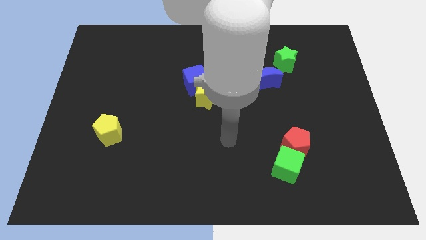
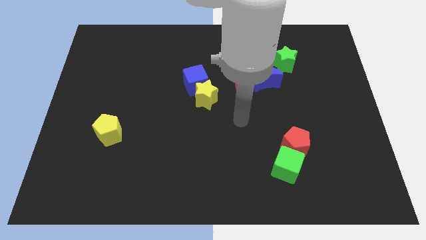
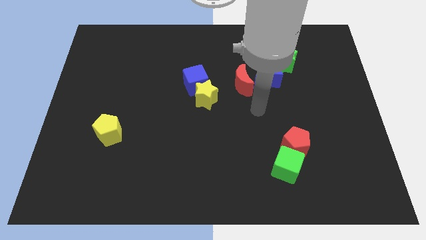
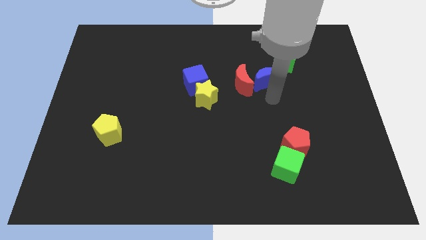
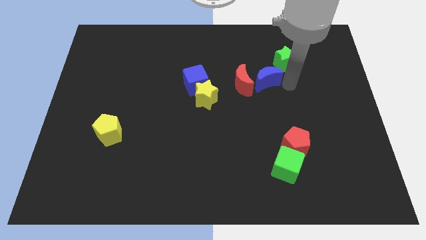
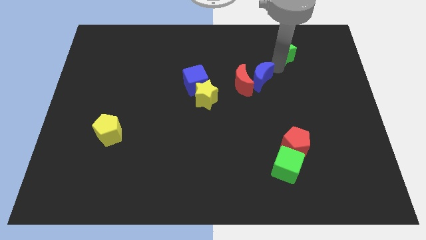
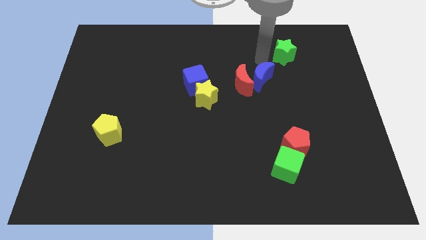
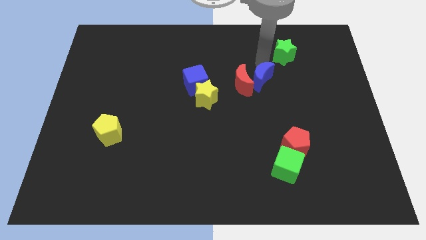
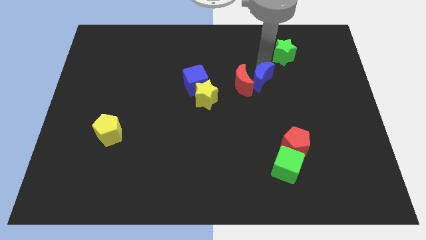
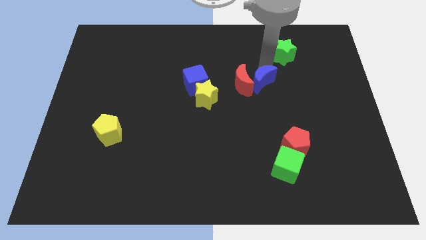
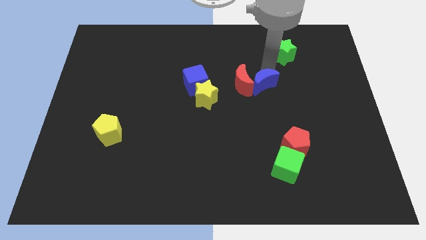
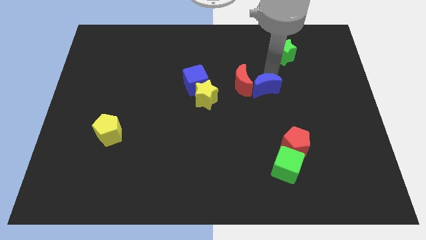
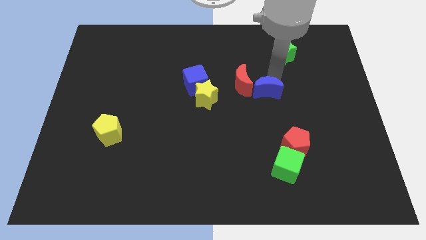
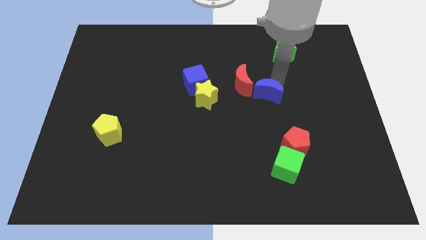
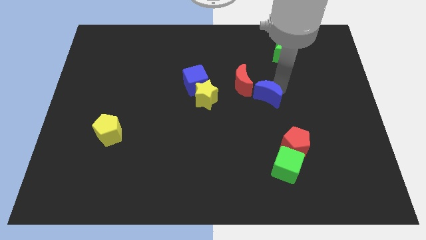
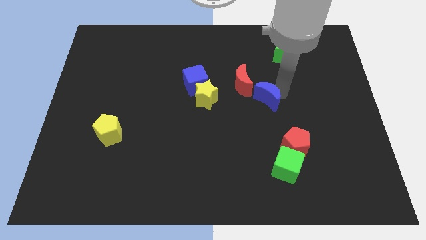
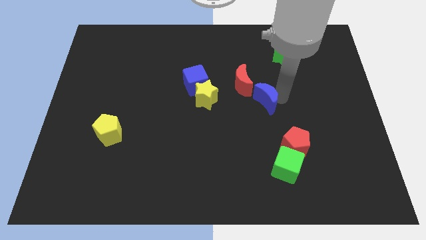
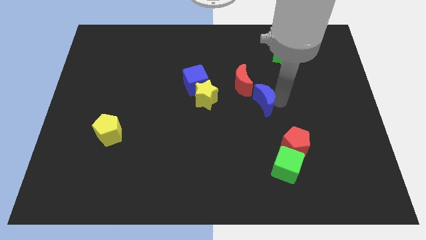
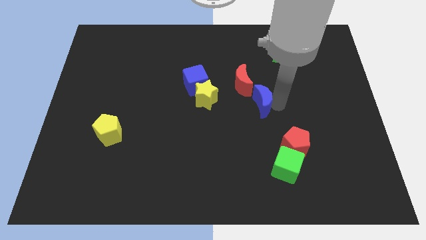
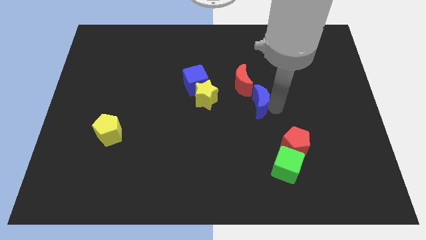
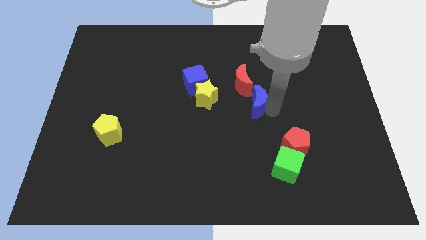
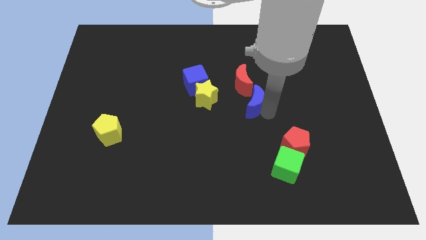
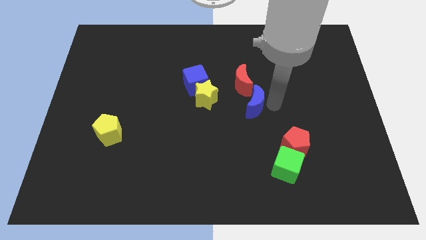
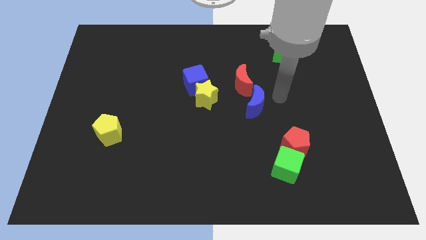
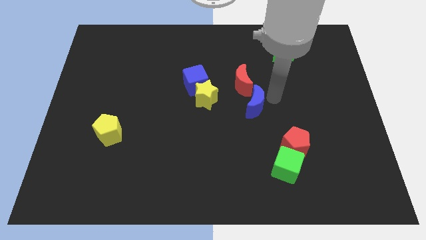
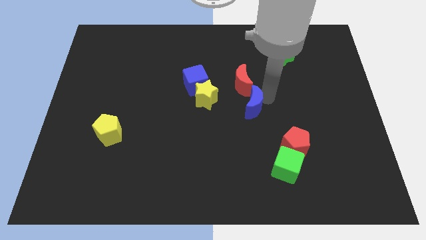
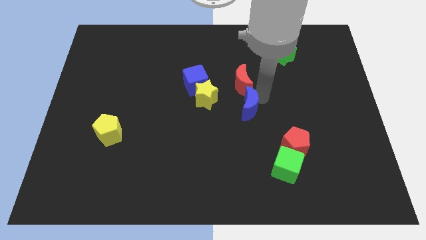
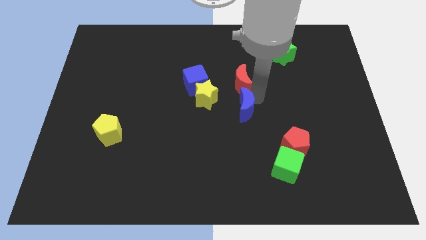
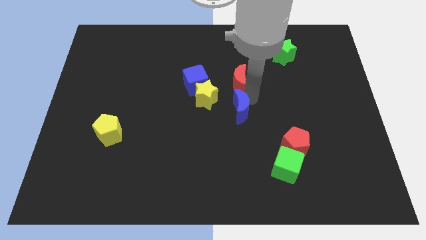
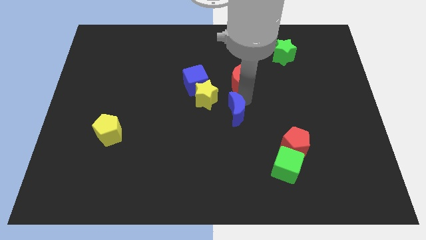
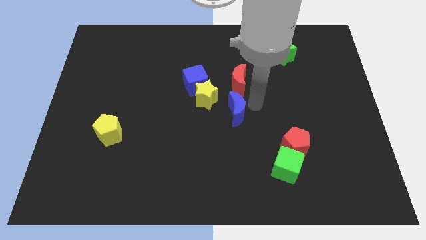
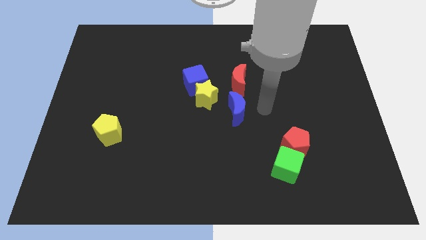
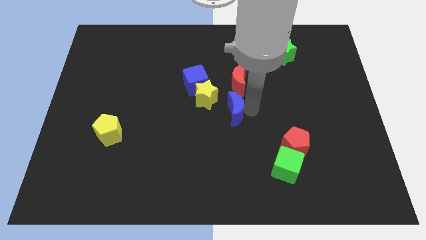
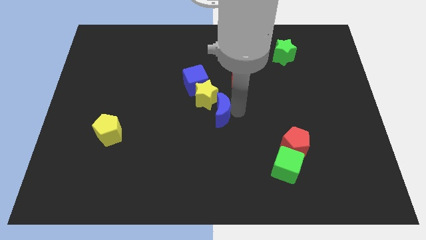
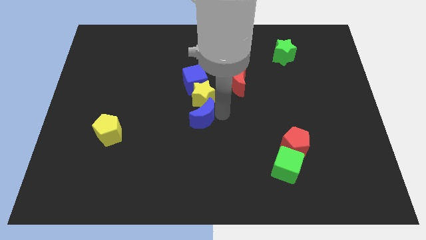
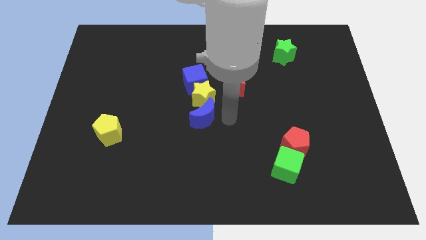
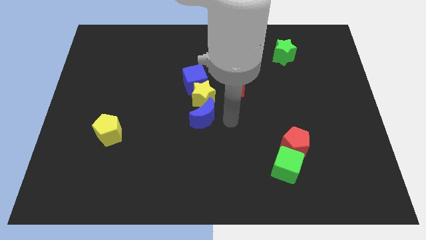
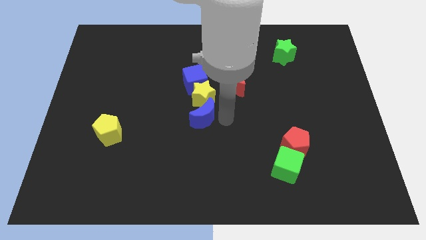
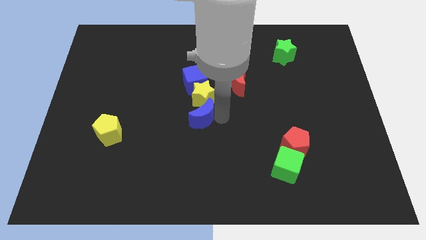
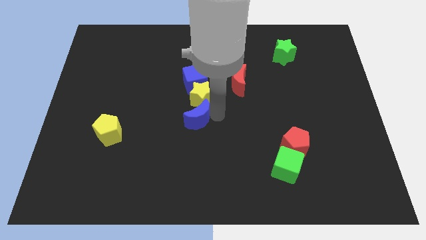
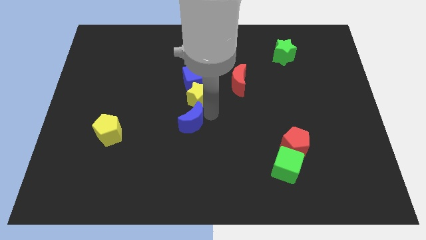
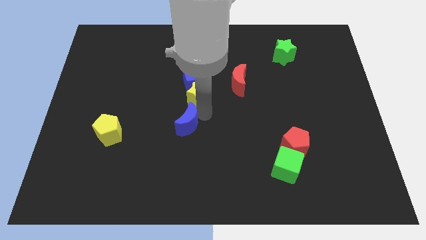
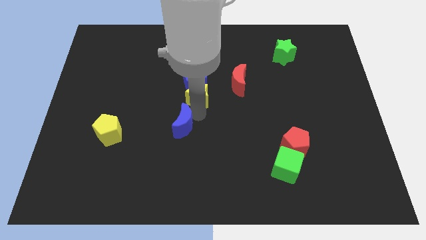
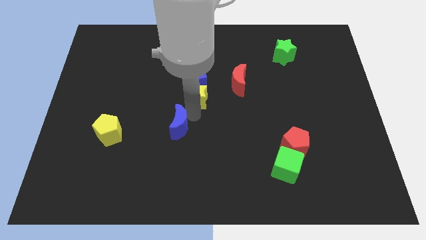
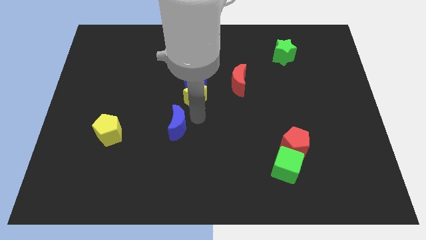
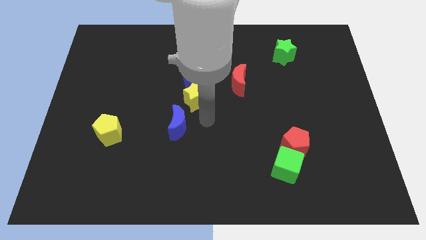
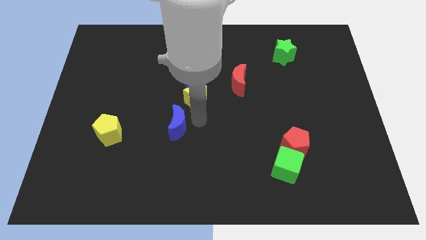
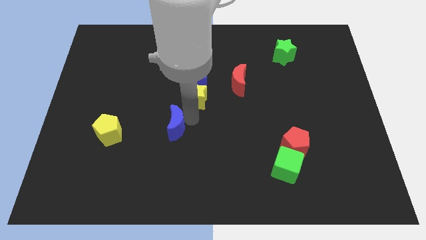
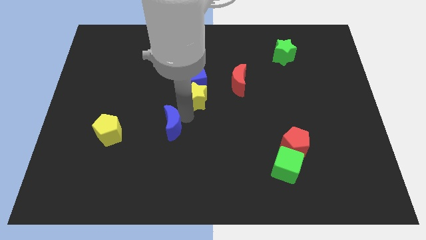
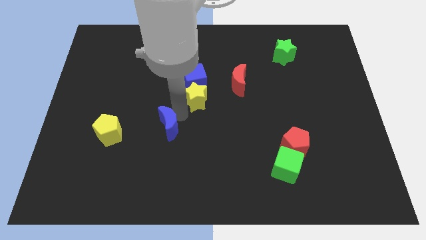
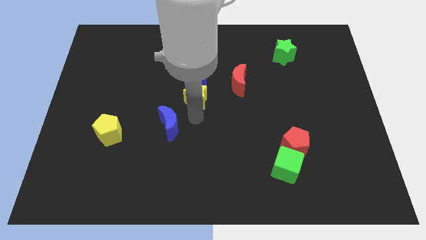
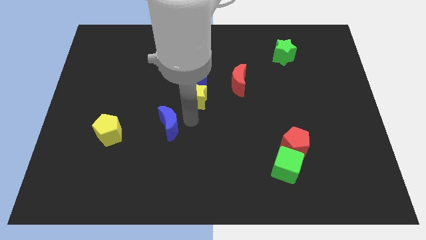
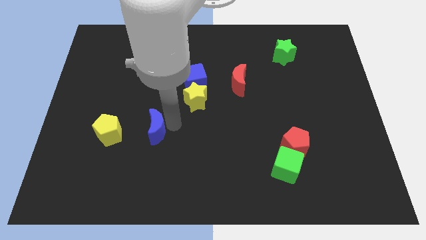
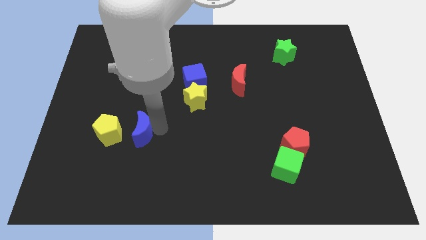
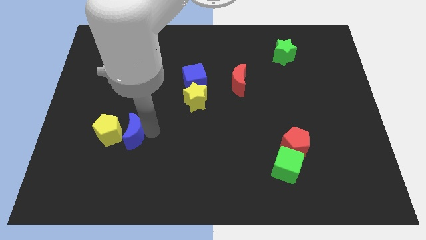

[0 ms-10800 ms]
move the blue moon towards the yellow pentagon

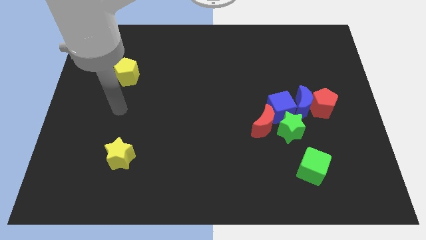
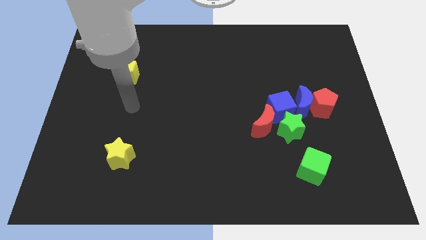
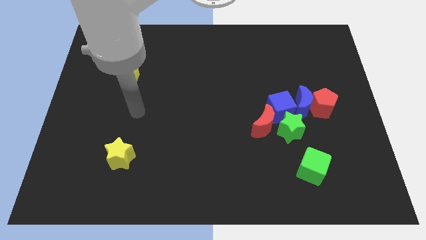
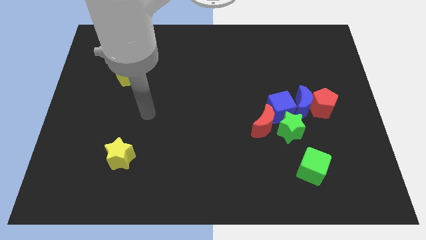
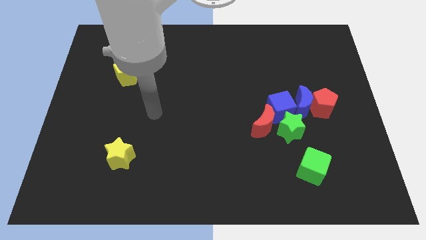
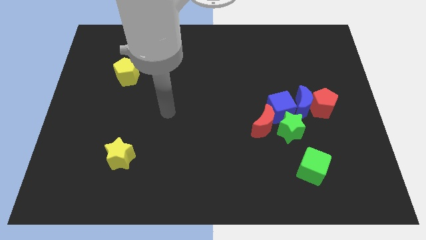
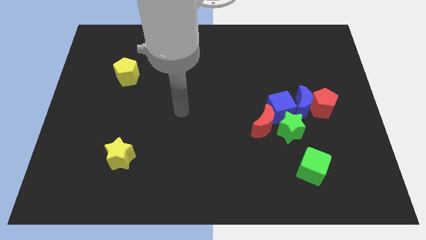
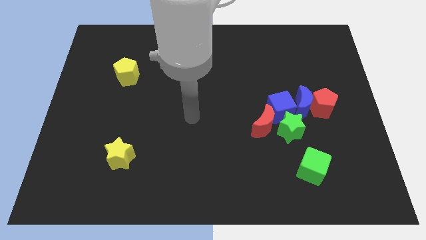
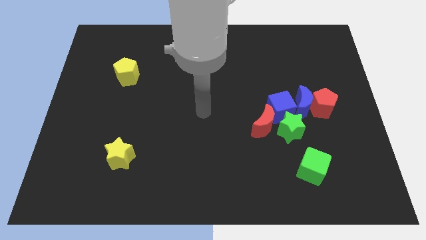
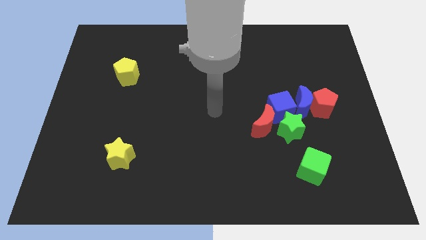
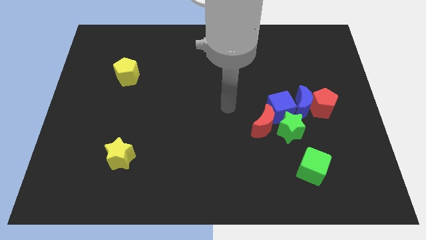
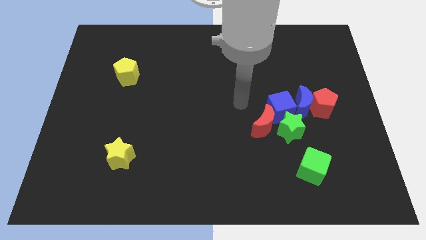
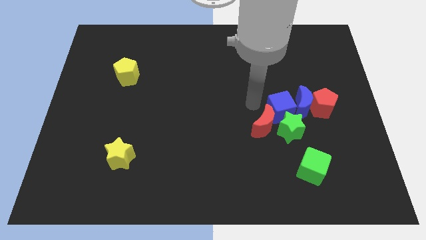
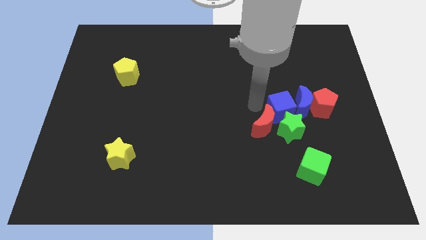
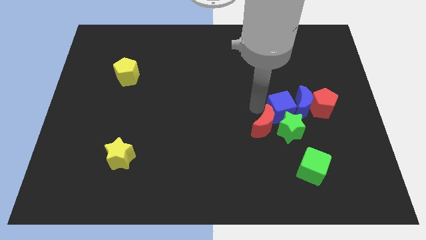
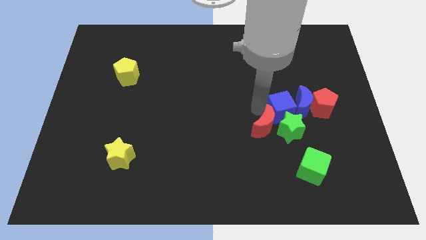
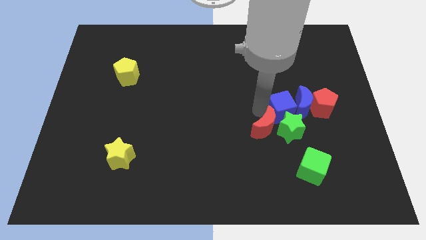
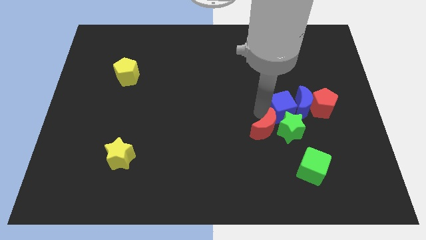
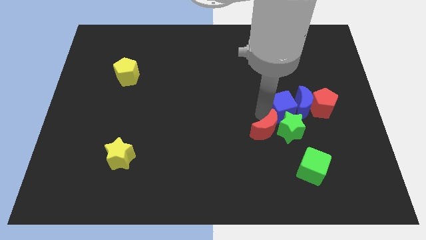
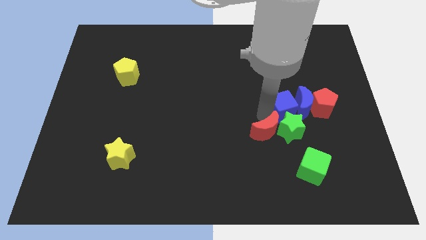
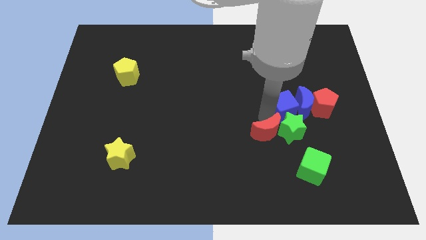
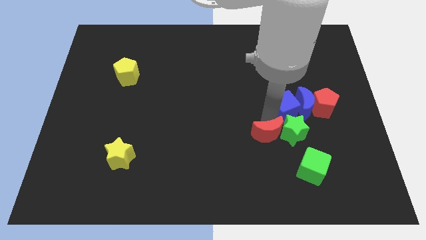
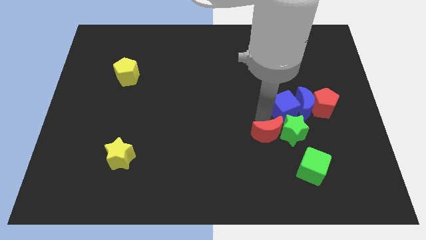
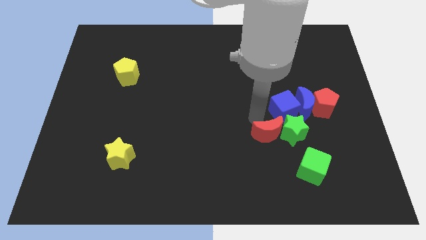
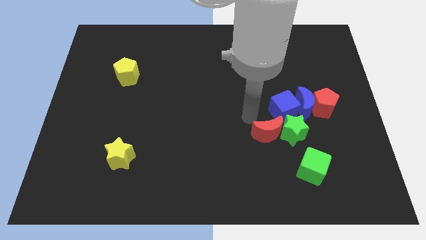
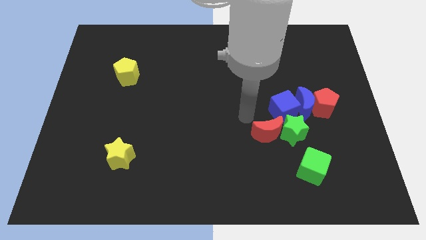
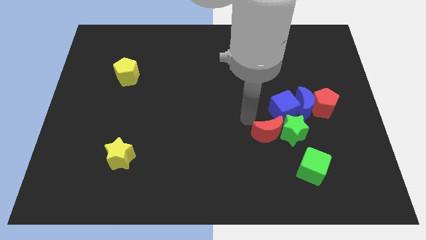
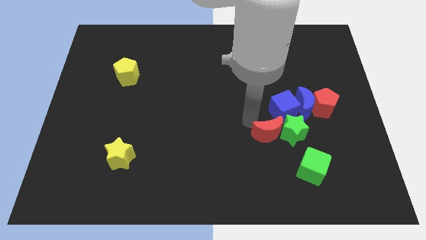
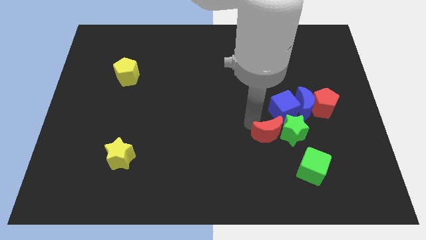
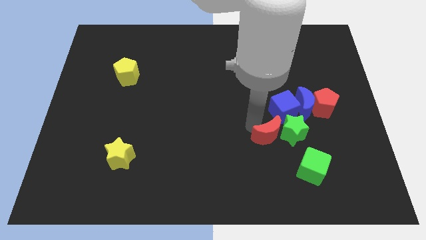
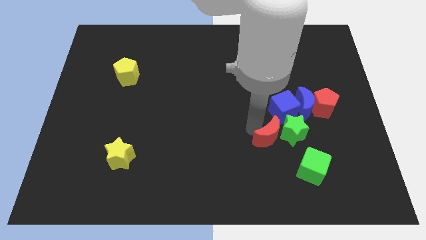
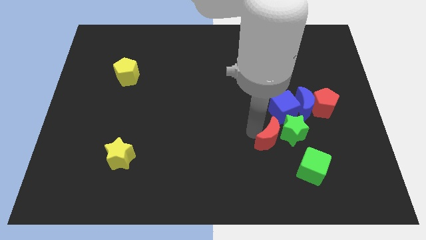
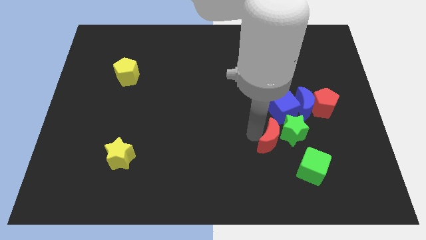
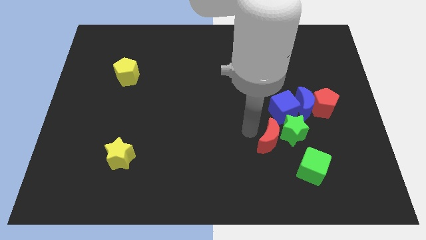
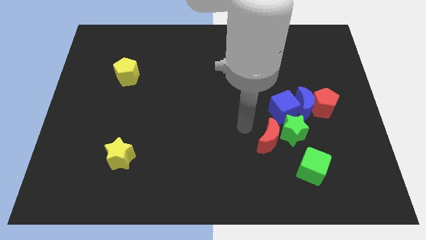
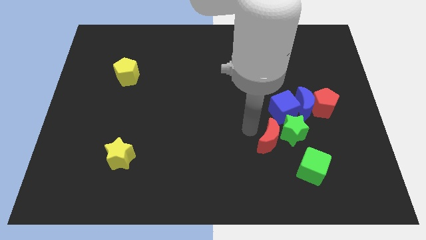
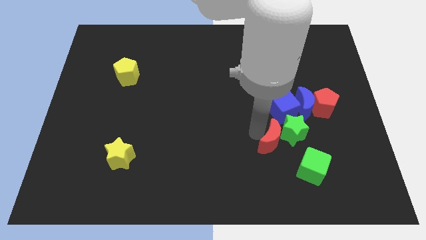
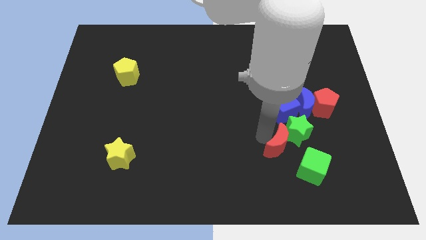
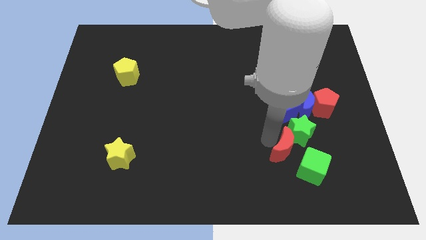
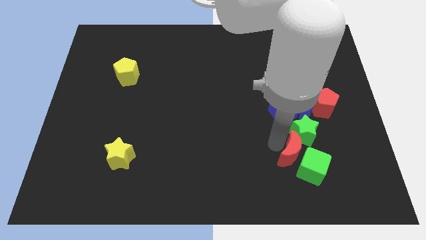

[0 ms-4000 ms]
put the red moon close to the green cube
